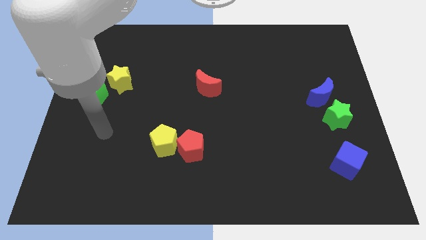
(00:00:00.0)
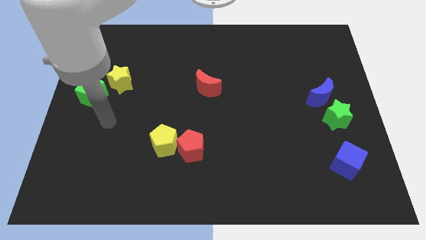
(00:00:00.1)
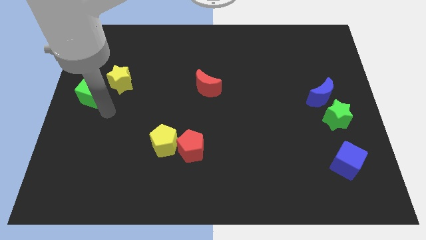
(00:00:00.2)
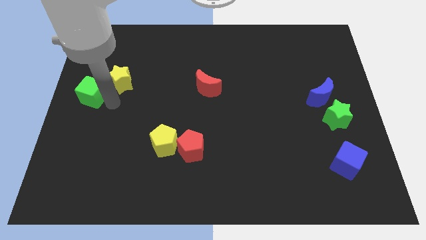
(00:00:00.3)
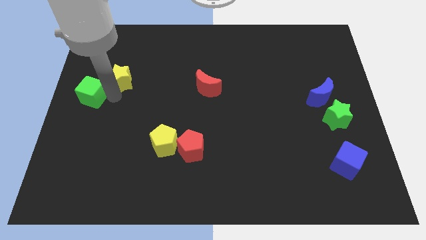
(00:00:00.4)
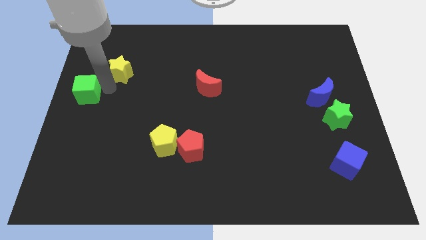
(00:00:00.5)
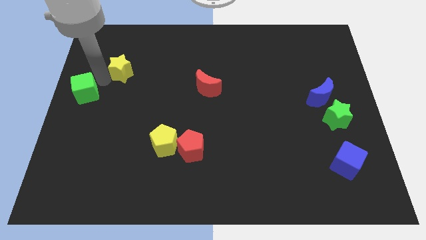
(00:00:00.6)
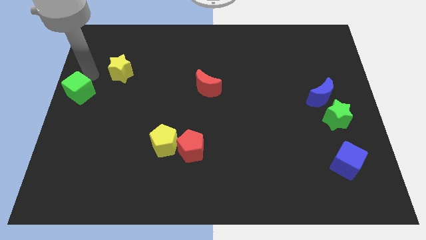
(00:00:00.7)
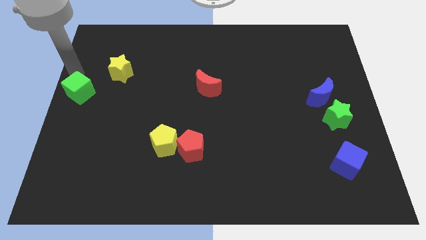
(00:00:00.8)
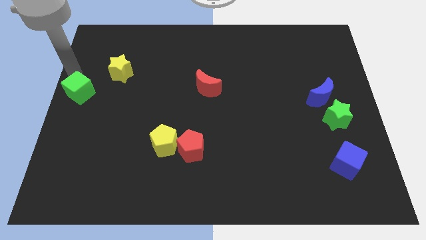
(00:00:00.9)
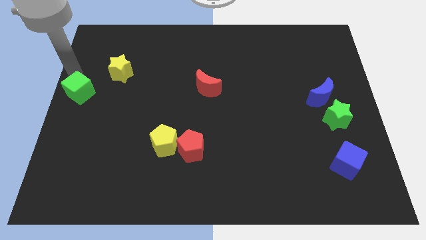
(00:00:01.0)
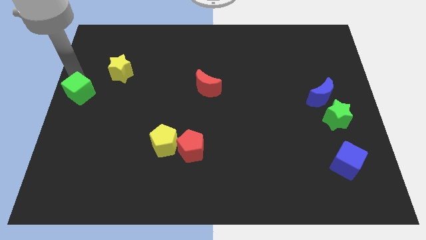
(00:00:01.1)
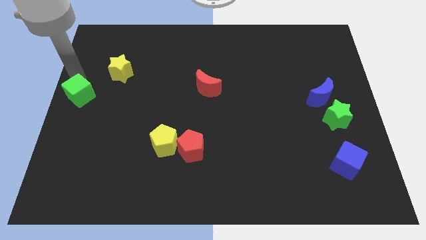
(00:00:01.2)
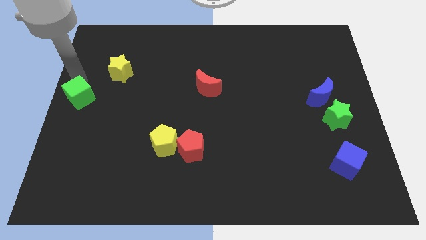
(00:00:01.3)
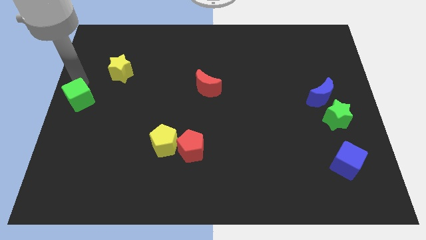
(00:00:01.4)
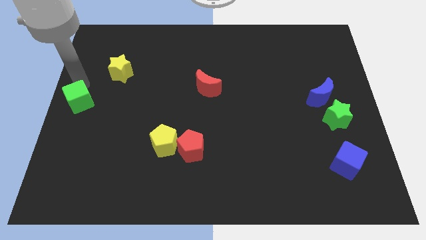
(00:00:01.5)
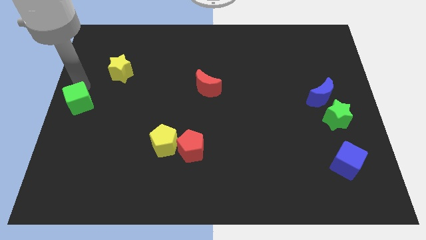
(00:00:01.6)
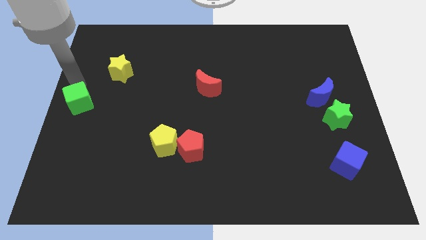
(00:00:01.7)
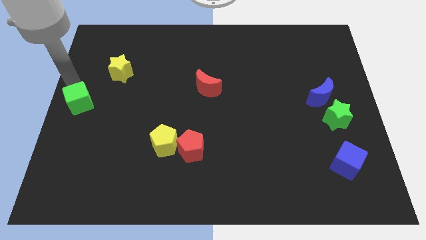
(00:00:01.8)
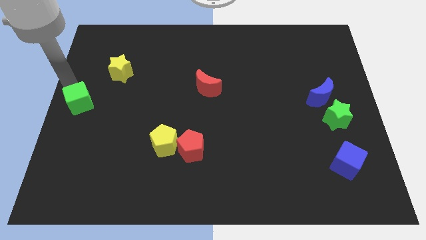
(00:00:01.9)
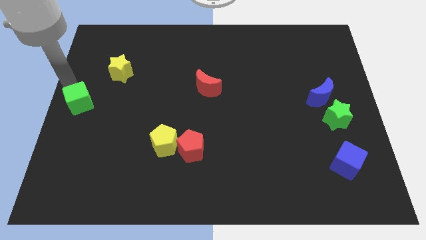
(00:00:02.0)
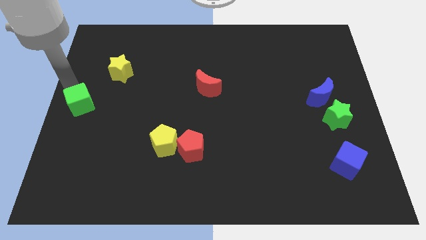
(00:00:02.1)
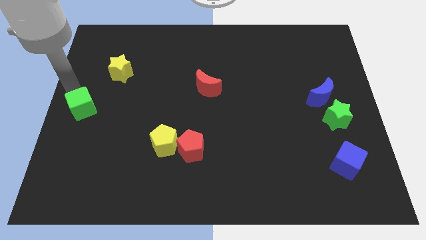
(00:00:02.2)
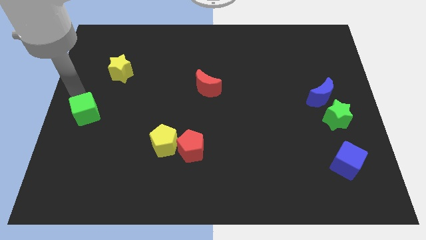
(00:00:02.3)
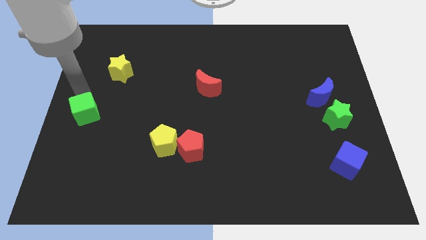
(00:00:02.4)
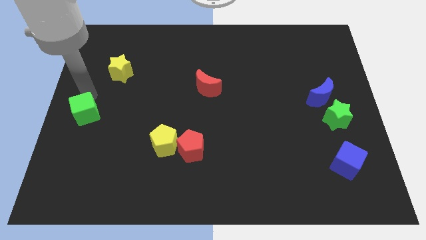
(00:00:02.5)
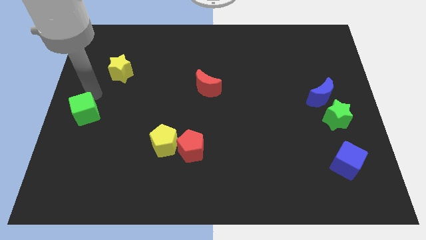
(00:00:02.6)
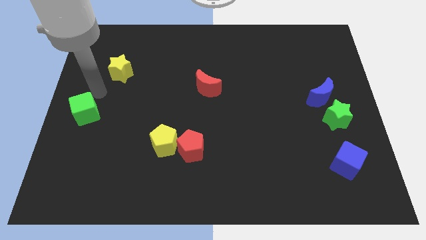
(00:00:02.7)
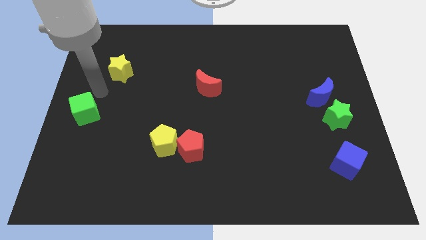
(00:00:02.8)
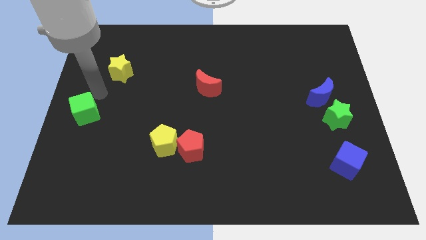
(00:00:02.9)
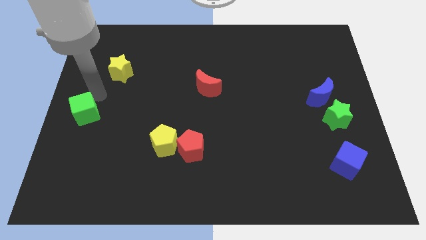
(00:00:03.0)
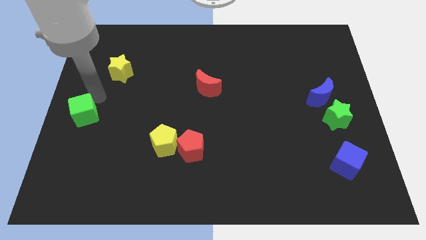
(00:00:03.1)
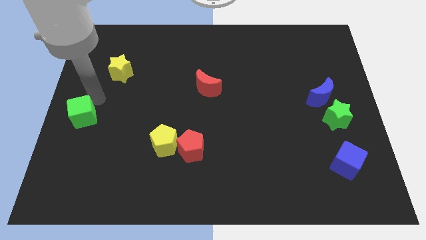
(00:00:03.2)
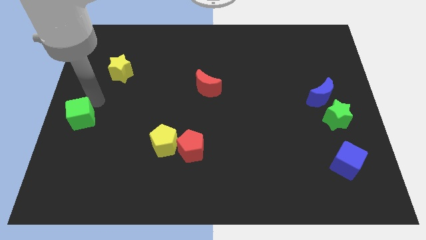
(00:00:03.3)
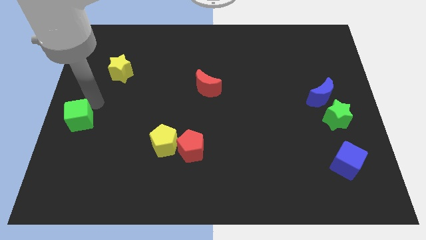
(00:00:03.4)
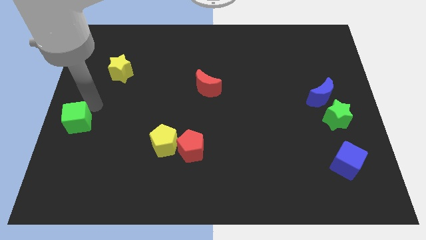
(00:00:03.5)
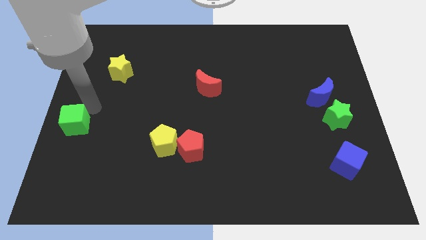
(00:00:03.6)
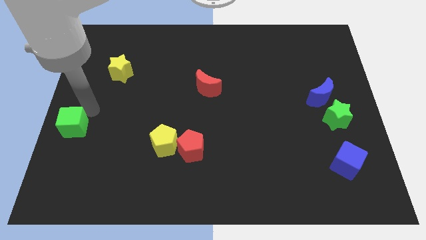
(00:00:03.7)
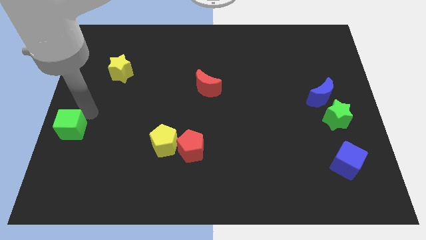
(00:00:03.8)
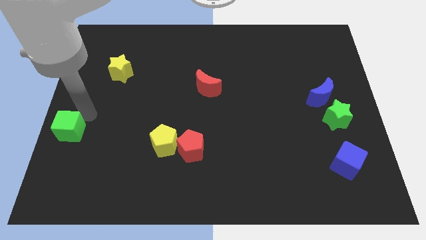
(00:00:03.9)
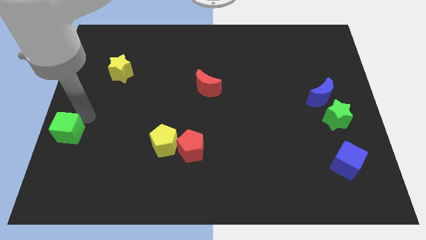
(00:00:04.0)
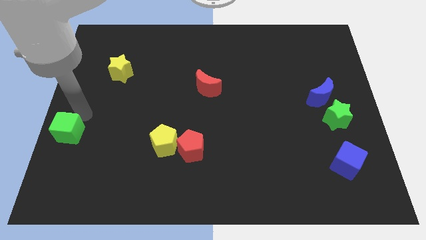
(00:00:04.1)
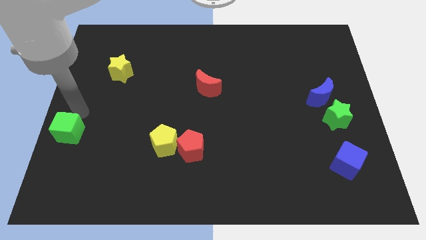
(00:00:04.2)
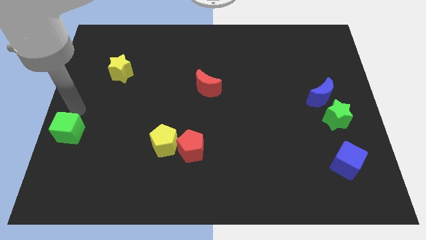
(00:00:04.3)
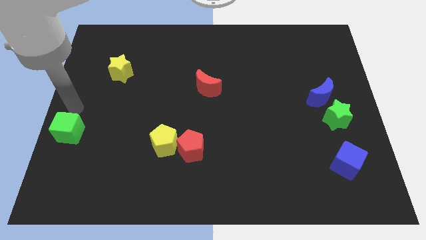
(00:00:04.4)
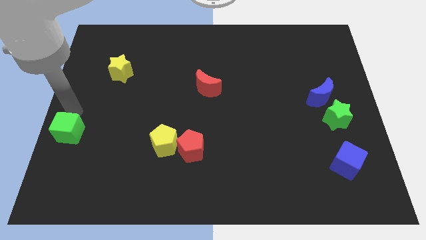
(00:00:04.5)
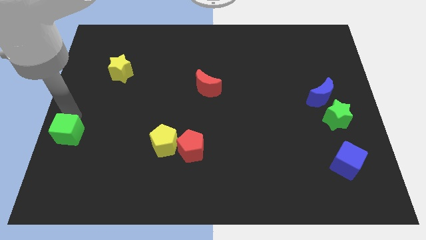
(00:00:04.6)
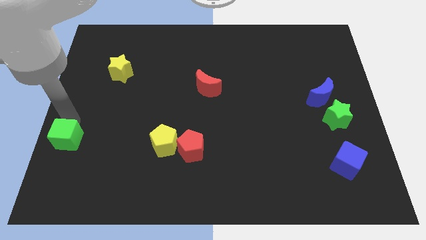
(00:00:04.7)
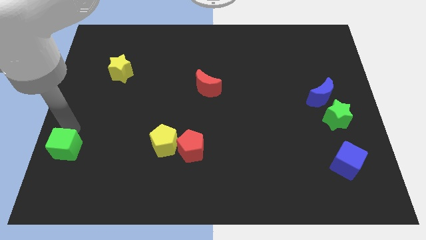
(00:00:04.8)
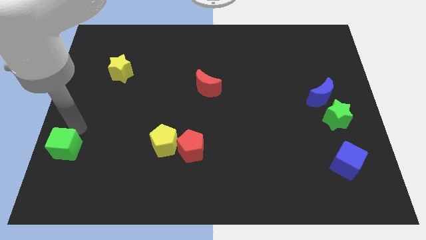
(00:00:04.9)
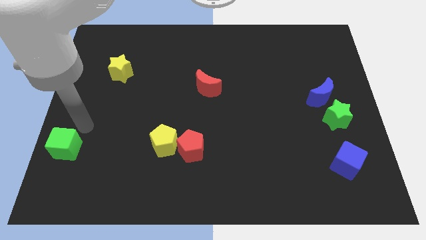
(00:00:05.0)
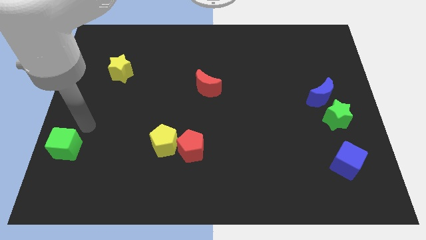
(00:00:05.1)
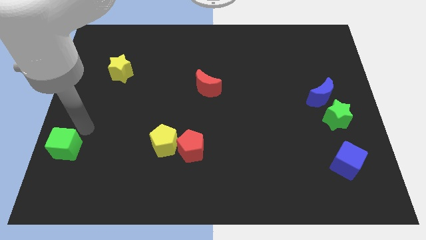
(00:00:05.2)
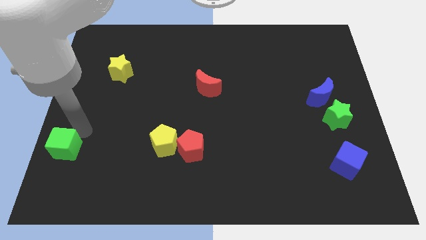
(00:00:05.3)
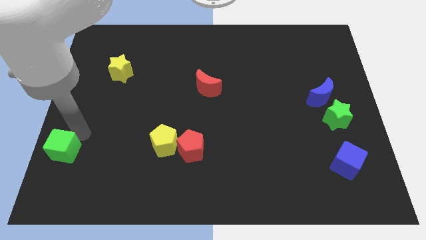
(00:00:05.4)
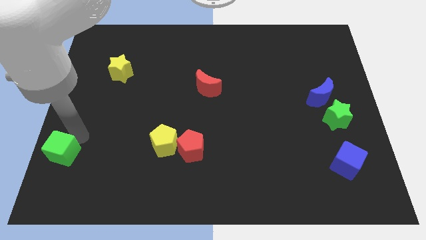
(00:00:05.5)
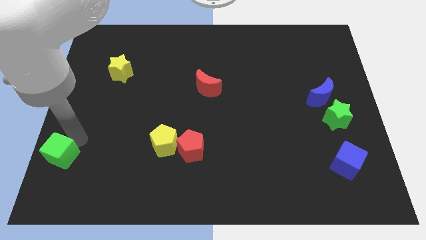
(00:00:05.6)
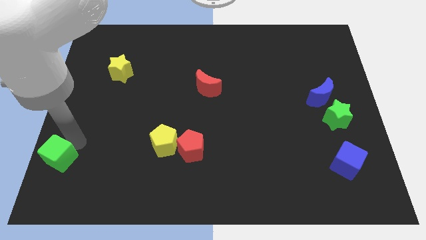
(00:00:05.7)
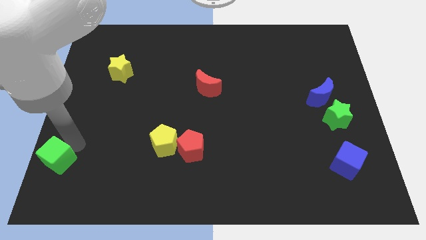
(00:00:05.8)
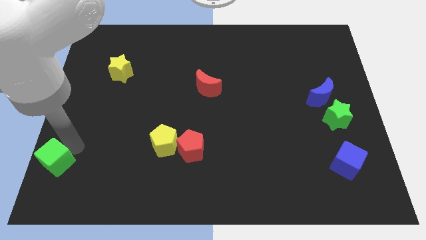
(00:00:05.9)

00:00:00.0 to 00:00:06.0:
push the green cube to the lower left corner

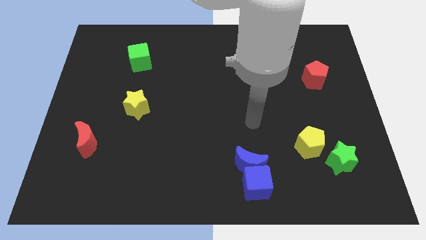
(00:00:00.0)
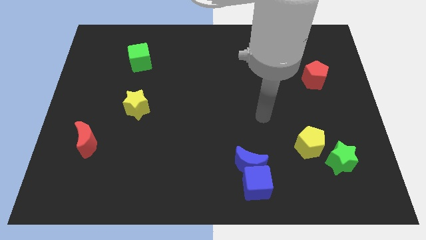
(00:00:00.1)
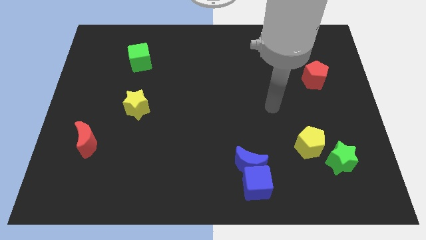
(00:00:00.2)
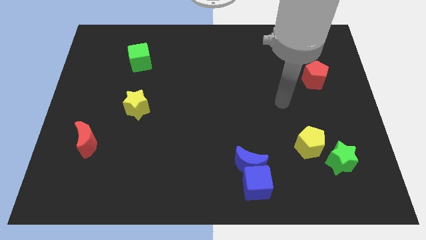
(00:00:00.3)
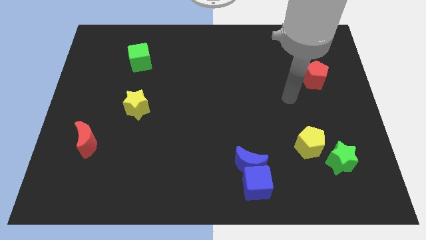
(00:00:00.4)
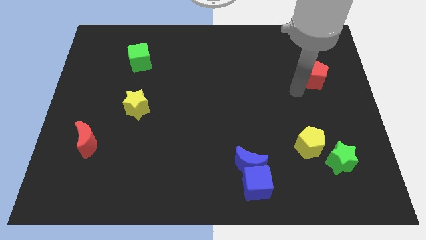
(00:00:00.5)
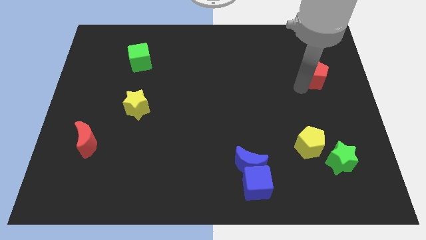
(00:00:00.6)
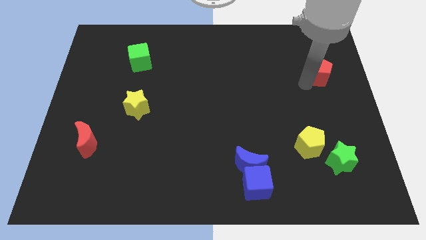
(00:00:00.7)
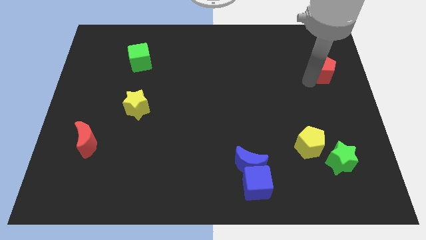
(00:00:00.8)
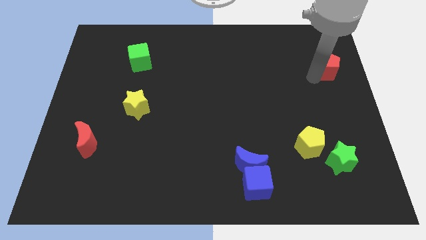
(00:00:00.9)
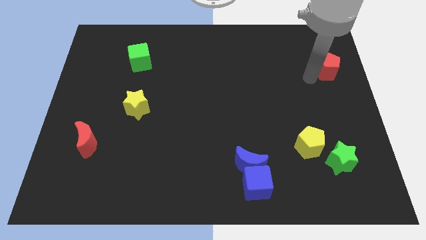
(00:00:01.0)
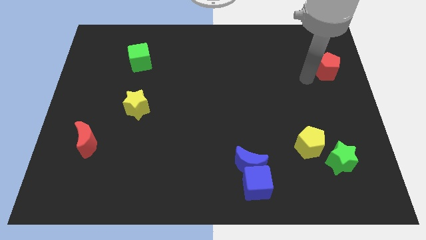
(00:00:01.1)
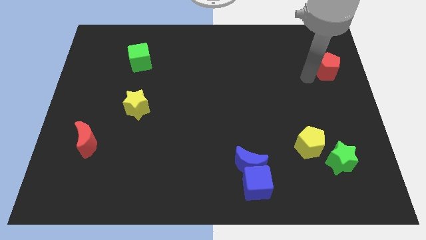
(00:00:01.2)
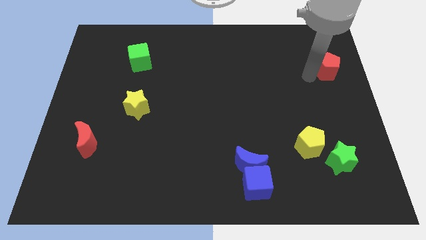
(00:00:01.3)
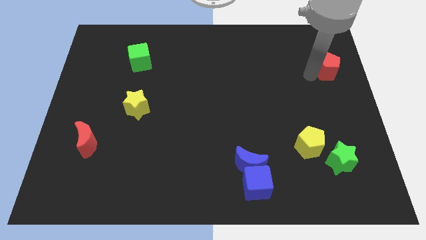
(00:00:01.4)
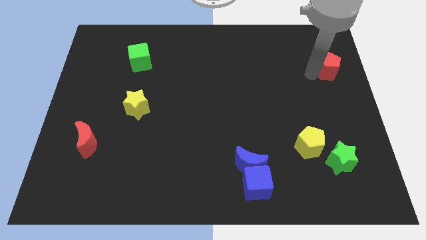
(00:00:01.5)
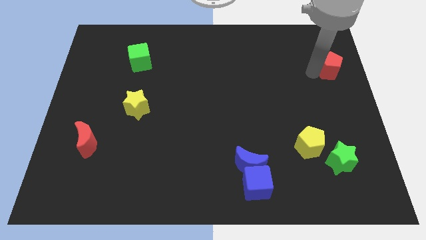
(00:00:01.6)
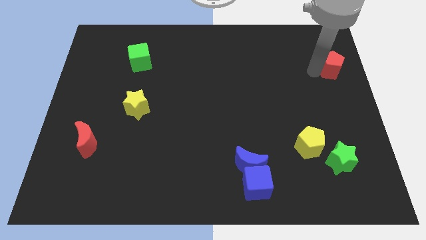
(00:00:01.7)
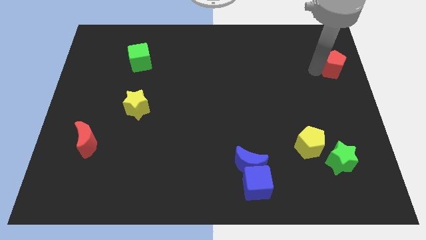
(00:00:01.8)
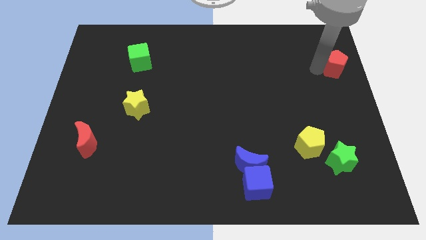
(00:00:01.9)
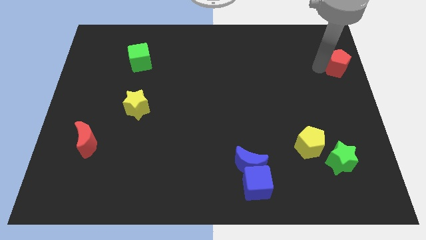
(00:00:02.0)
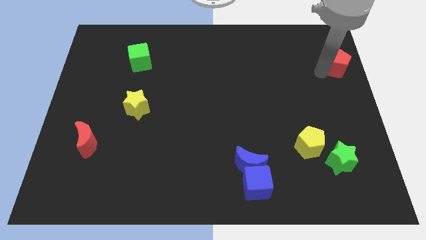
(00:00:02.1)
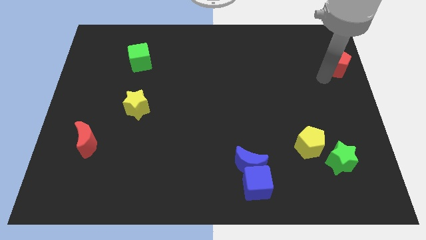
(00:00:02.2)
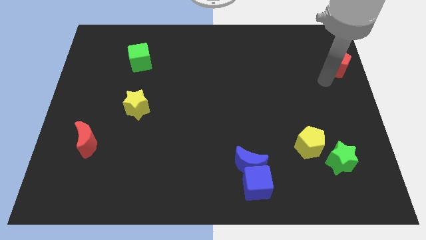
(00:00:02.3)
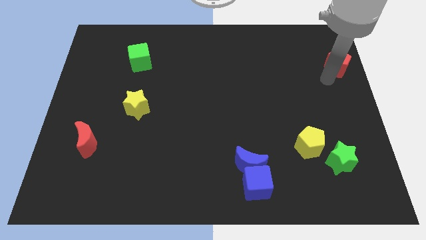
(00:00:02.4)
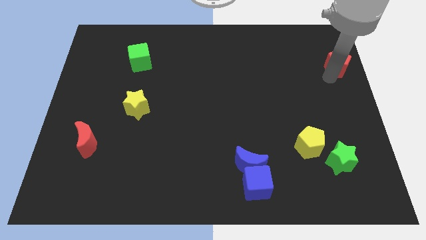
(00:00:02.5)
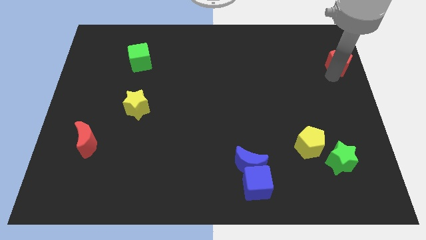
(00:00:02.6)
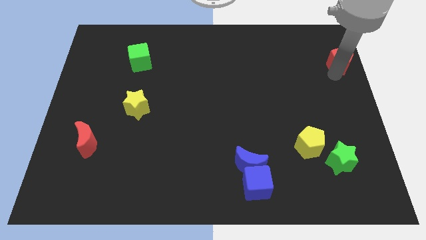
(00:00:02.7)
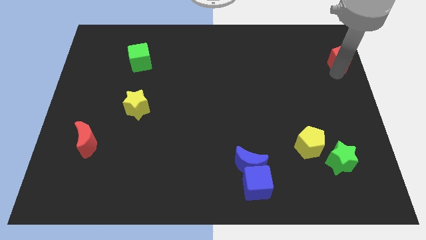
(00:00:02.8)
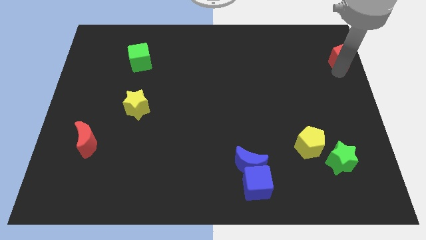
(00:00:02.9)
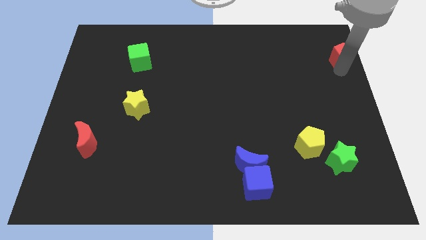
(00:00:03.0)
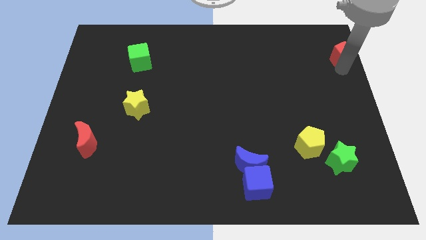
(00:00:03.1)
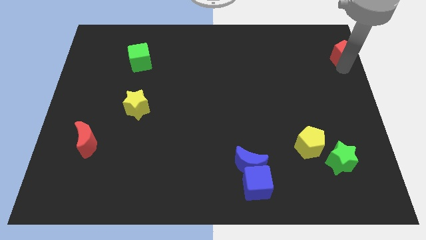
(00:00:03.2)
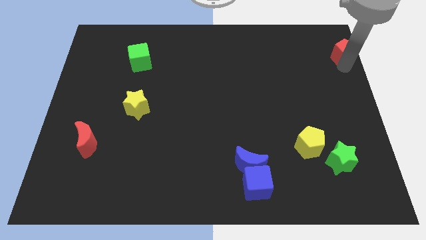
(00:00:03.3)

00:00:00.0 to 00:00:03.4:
push the red pentagon to the top right corner
